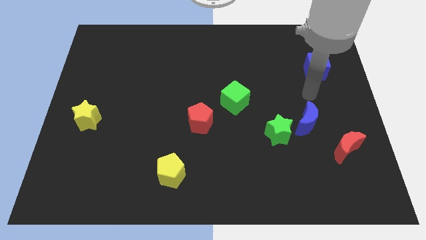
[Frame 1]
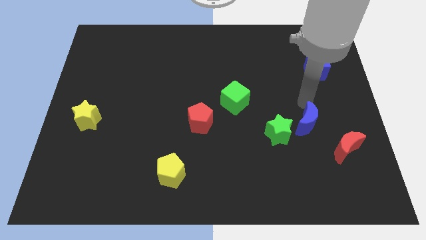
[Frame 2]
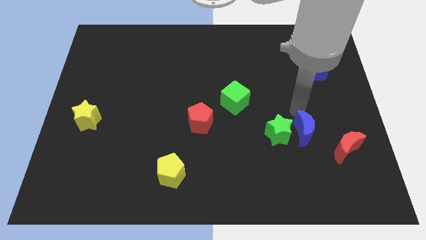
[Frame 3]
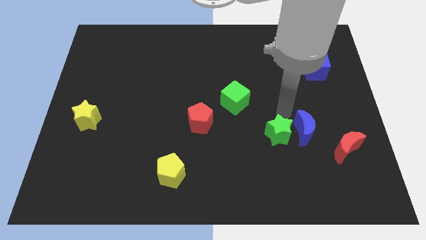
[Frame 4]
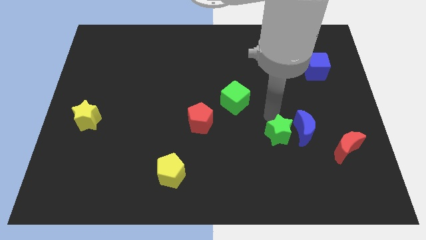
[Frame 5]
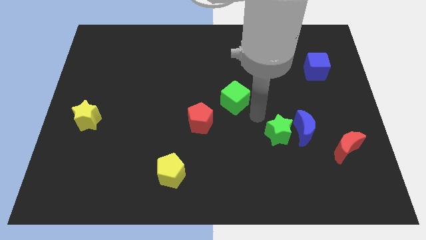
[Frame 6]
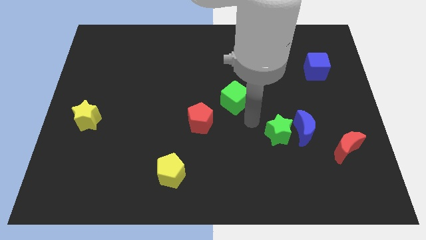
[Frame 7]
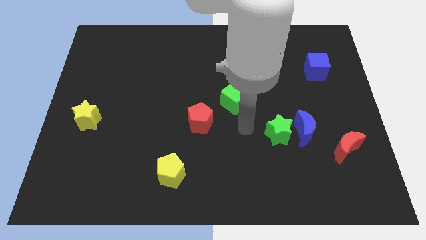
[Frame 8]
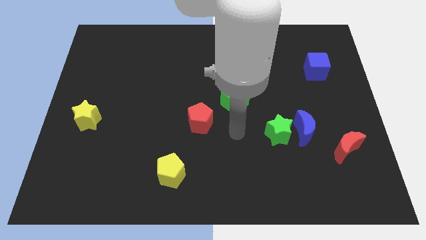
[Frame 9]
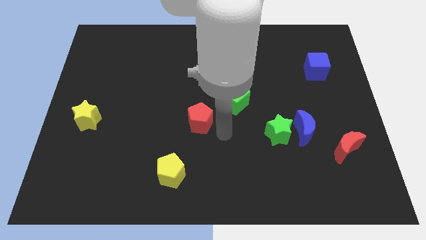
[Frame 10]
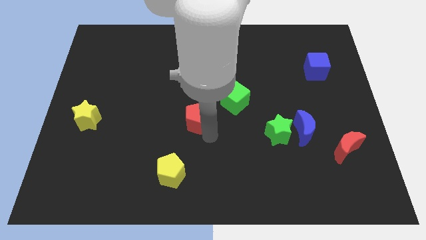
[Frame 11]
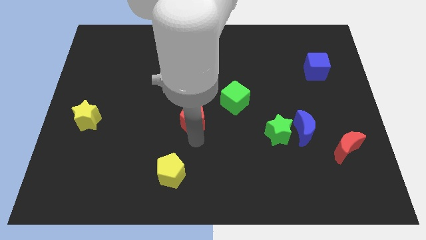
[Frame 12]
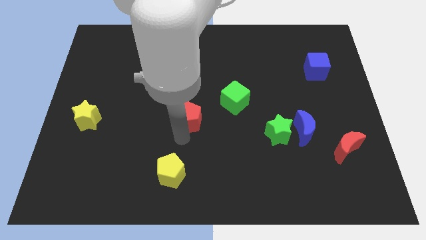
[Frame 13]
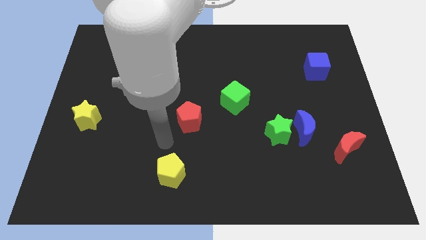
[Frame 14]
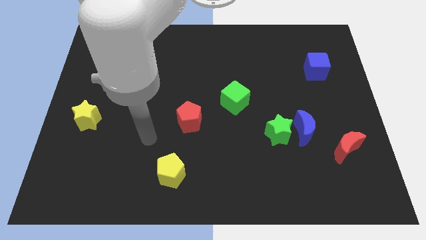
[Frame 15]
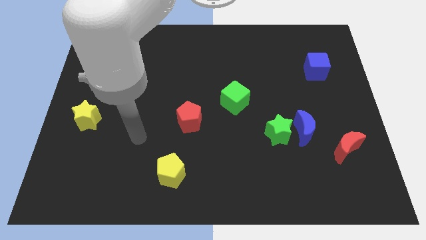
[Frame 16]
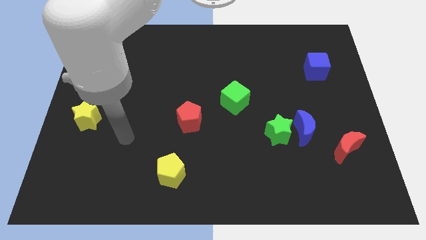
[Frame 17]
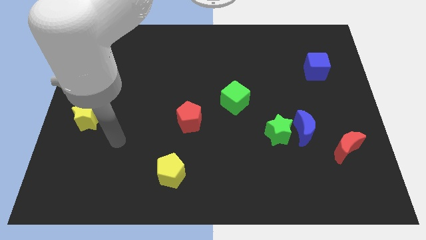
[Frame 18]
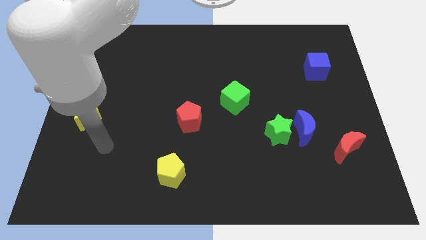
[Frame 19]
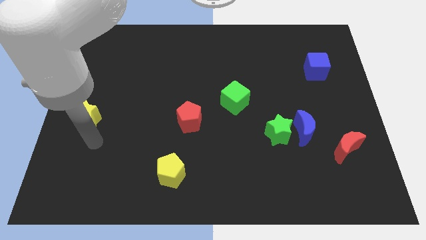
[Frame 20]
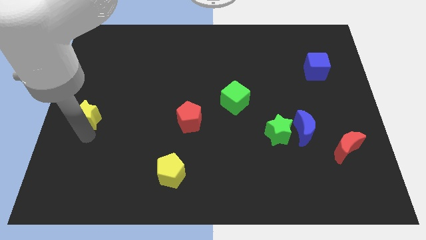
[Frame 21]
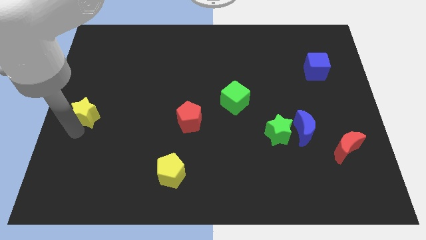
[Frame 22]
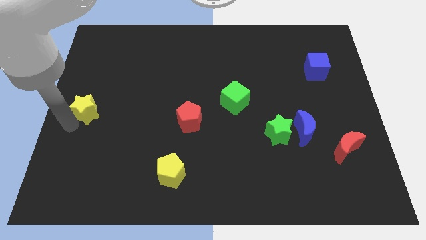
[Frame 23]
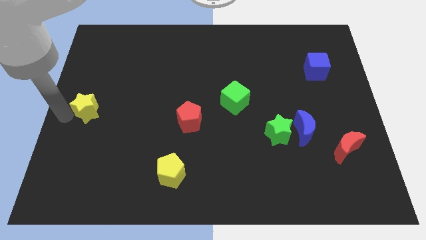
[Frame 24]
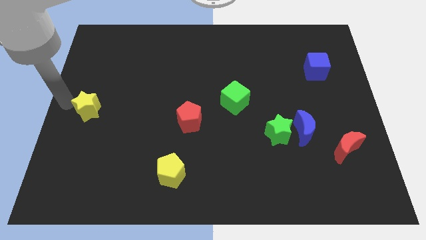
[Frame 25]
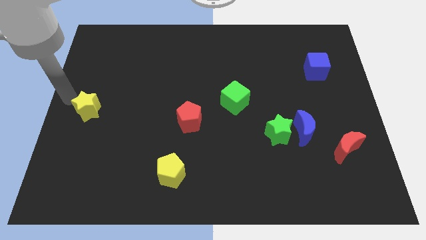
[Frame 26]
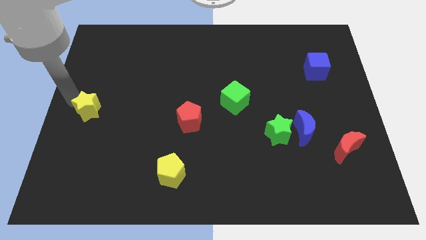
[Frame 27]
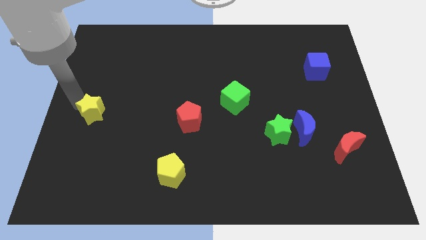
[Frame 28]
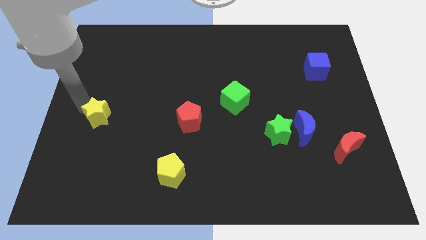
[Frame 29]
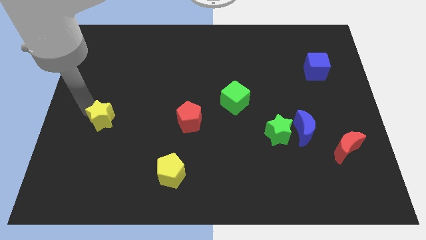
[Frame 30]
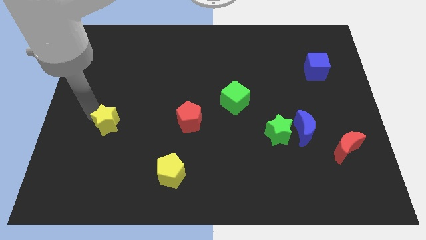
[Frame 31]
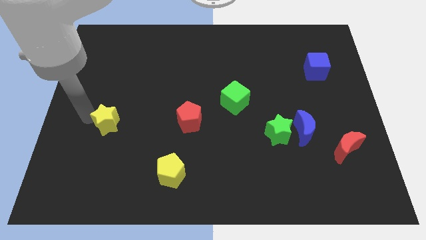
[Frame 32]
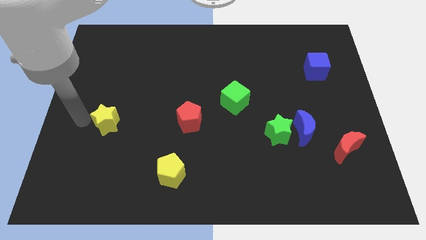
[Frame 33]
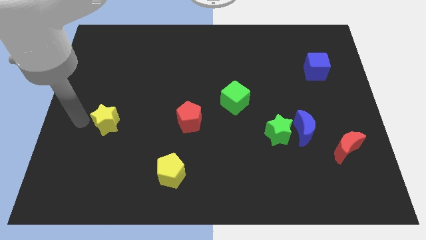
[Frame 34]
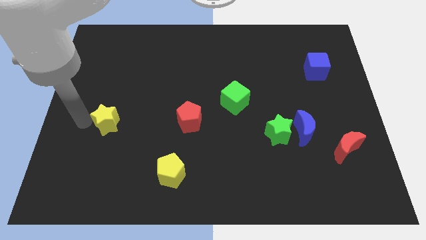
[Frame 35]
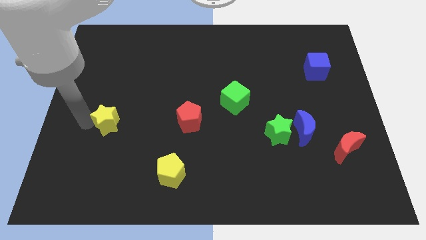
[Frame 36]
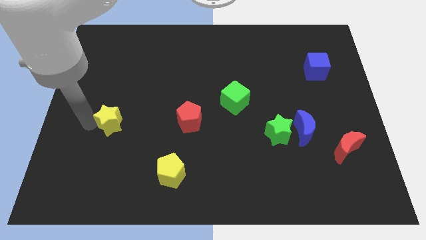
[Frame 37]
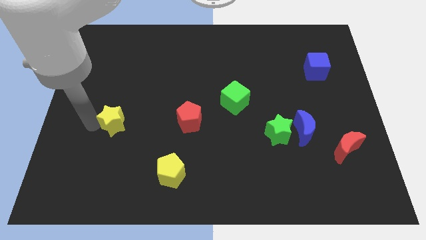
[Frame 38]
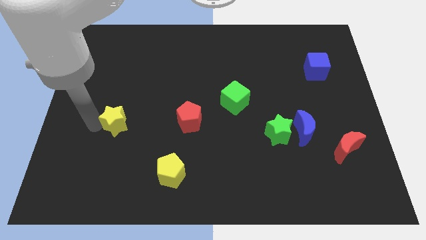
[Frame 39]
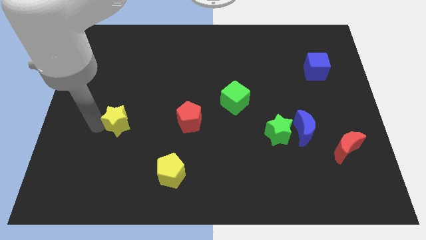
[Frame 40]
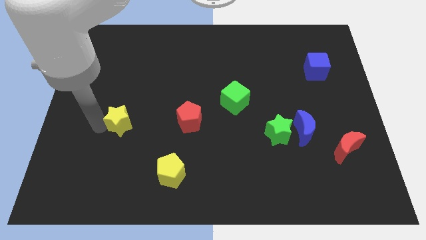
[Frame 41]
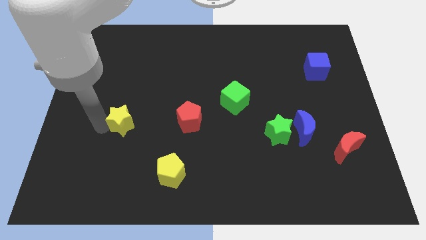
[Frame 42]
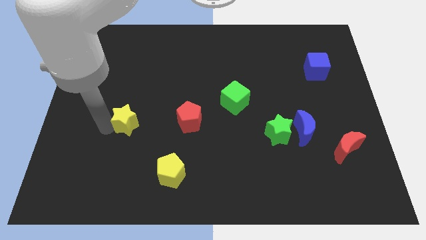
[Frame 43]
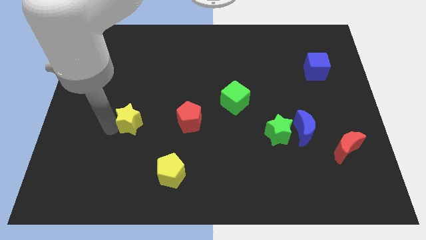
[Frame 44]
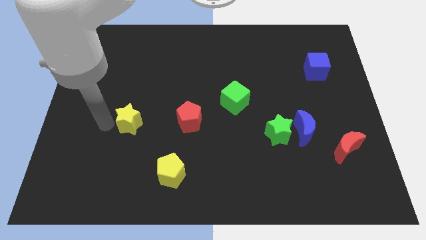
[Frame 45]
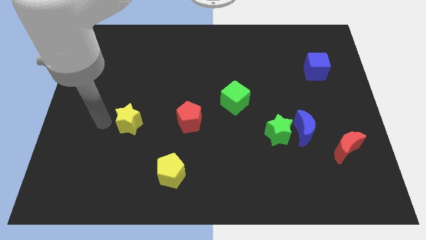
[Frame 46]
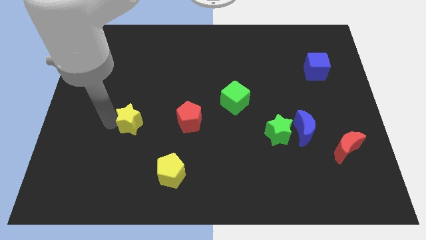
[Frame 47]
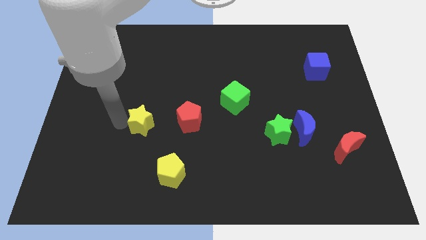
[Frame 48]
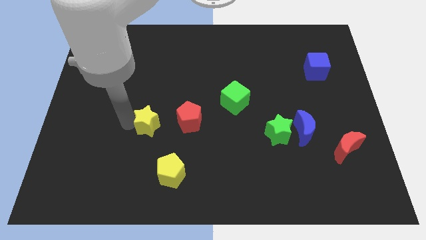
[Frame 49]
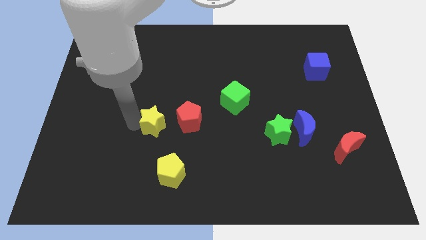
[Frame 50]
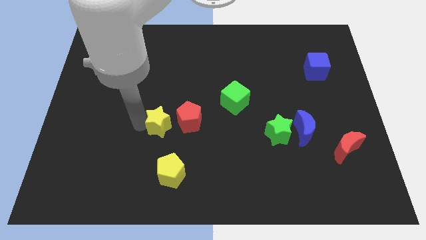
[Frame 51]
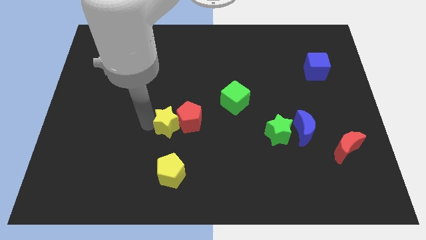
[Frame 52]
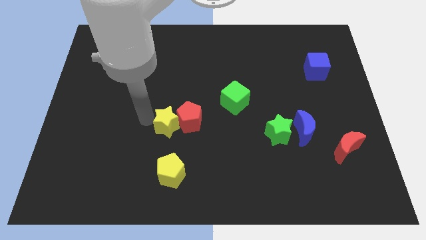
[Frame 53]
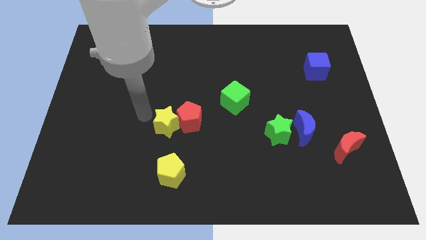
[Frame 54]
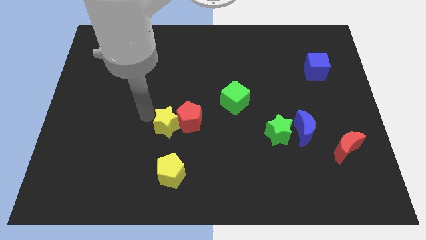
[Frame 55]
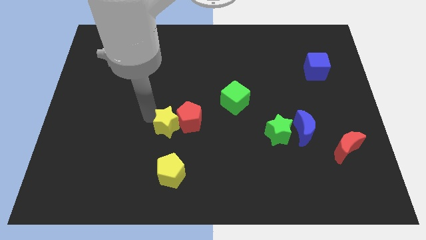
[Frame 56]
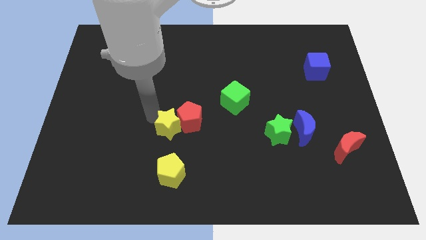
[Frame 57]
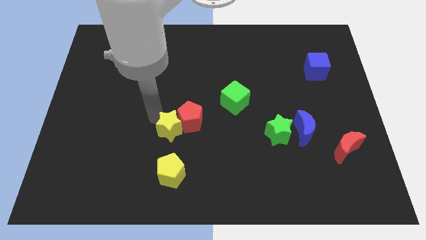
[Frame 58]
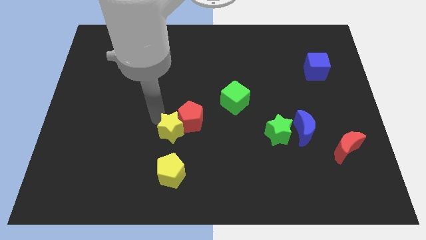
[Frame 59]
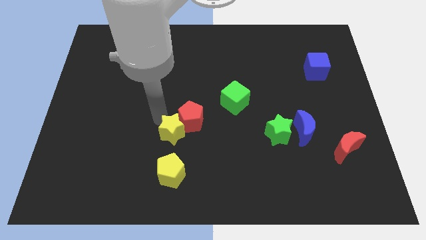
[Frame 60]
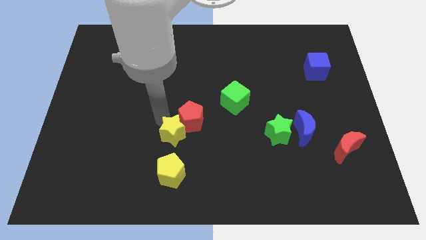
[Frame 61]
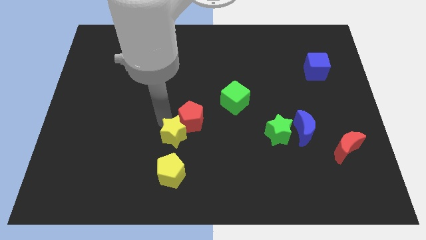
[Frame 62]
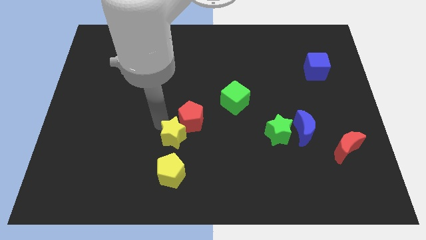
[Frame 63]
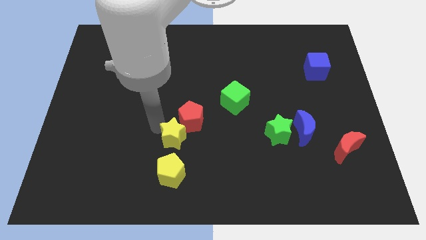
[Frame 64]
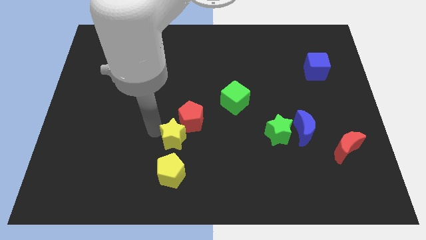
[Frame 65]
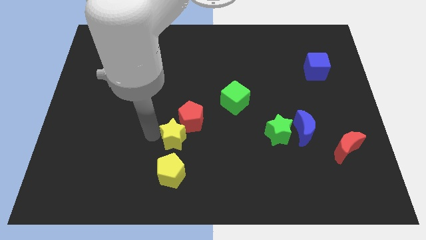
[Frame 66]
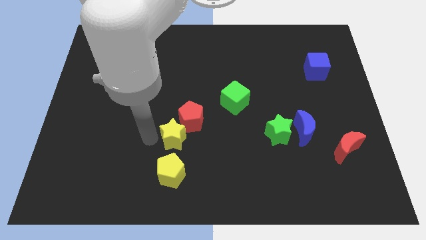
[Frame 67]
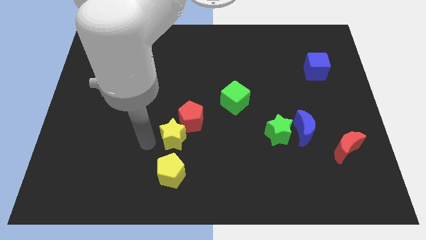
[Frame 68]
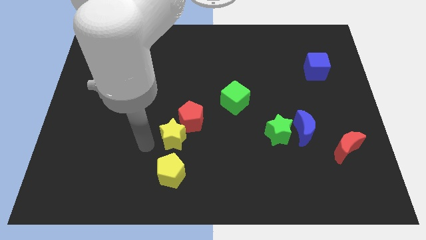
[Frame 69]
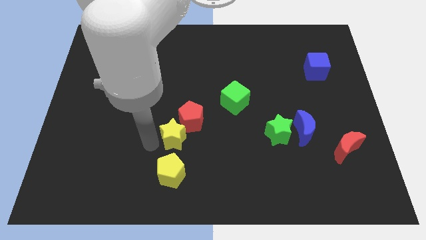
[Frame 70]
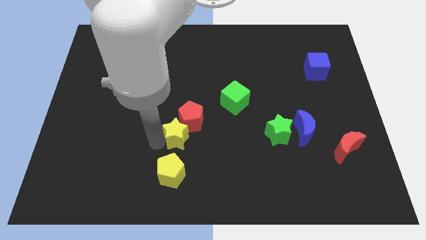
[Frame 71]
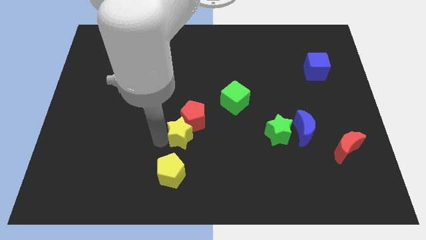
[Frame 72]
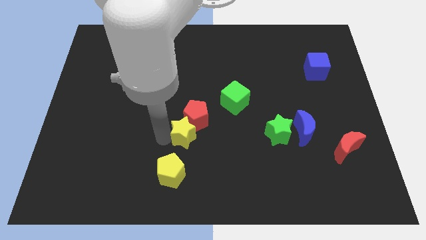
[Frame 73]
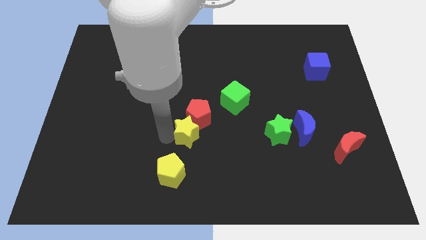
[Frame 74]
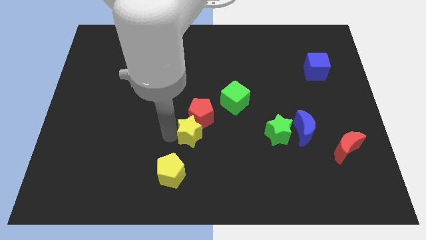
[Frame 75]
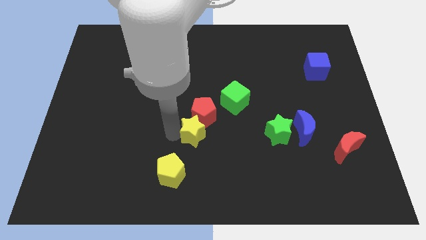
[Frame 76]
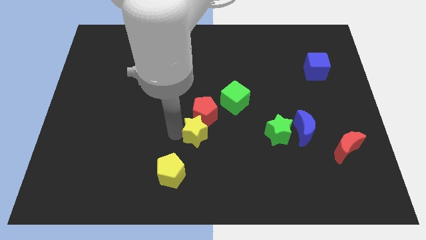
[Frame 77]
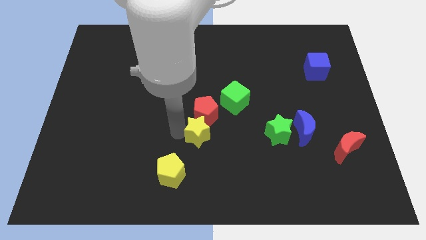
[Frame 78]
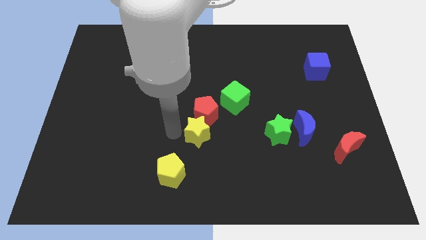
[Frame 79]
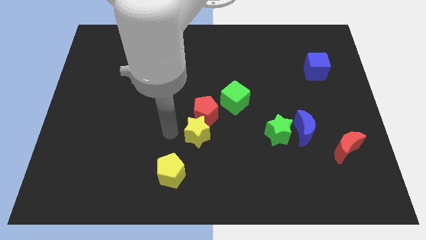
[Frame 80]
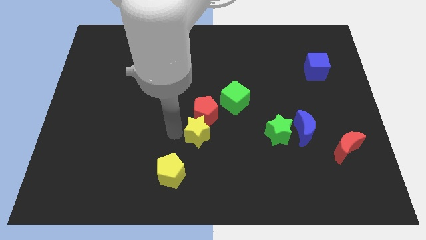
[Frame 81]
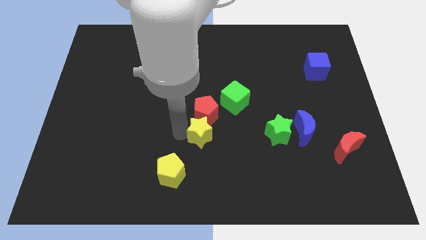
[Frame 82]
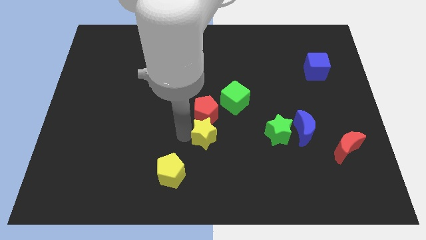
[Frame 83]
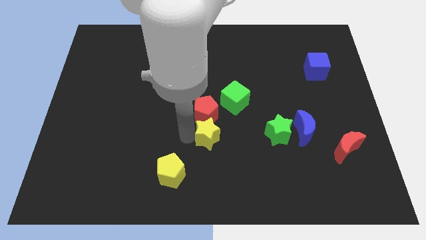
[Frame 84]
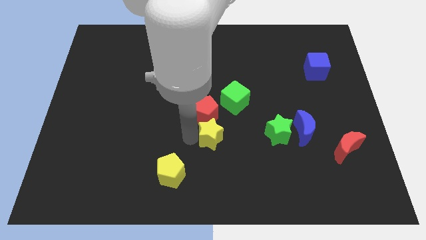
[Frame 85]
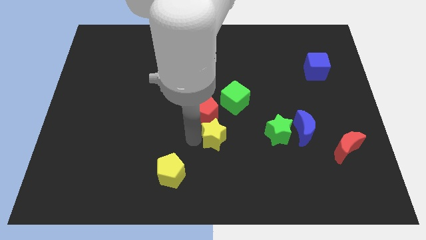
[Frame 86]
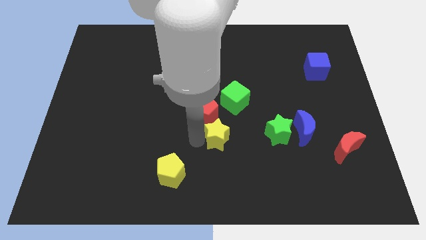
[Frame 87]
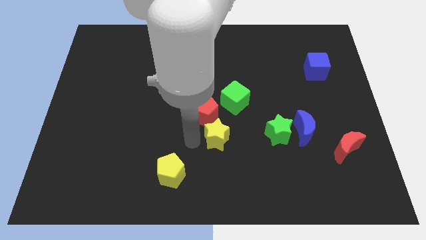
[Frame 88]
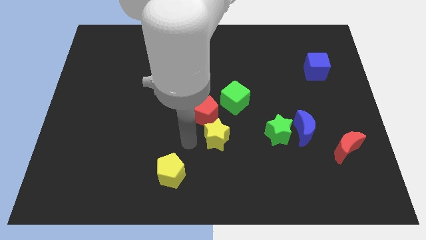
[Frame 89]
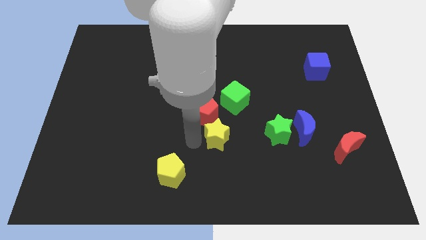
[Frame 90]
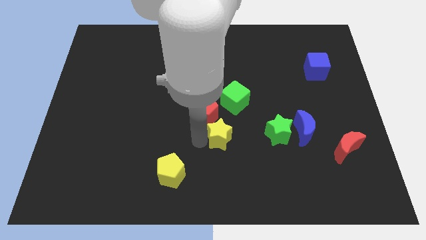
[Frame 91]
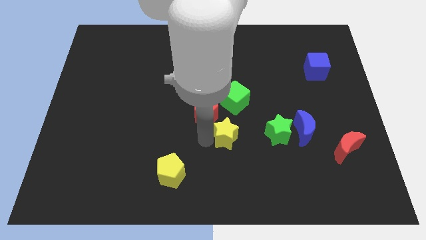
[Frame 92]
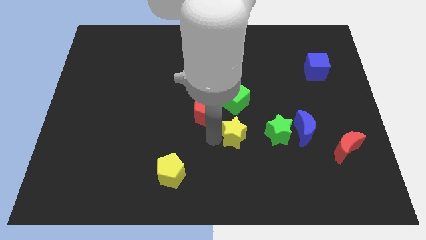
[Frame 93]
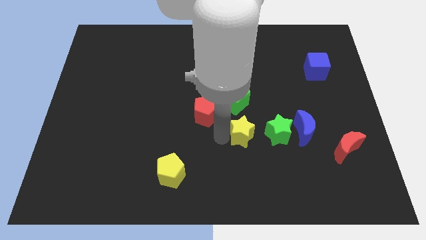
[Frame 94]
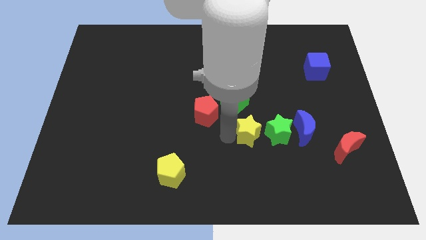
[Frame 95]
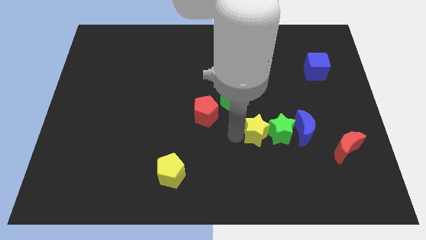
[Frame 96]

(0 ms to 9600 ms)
slide the yellow star towards the green star
